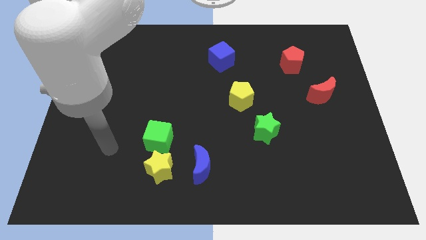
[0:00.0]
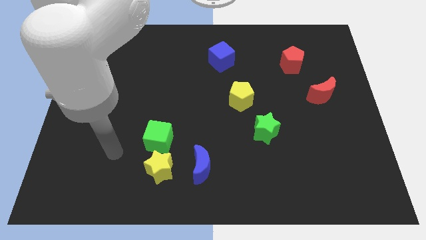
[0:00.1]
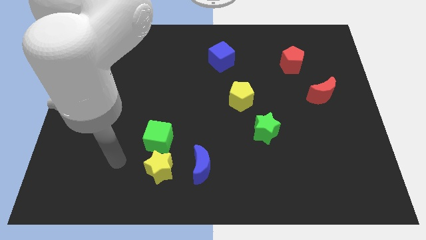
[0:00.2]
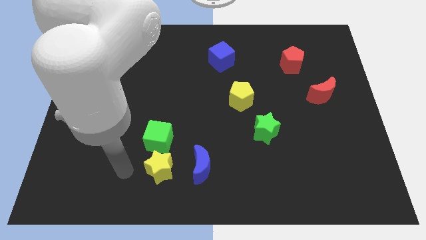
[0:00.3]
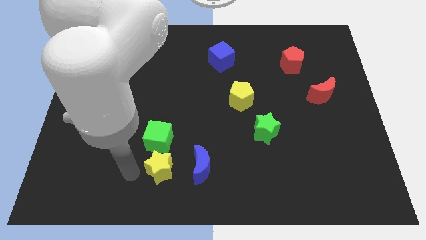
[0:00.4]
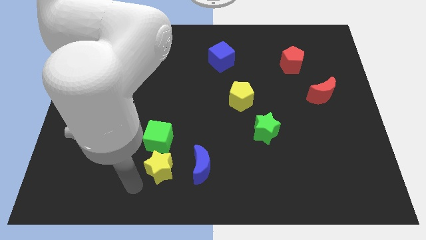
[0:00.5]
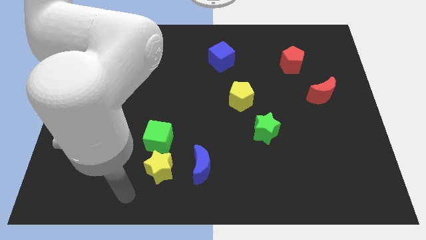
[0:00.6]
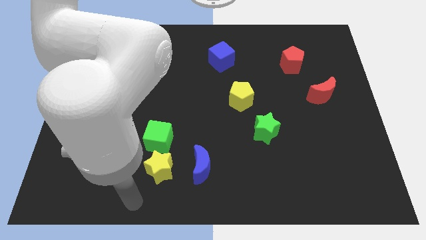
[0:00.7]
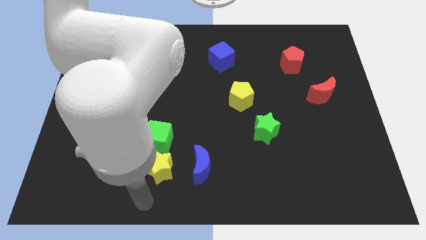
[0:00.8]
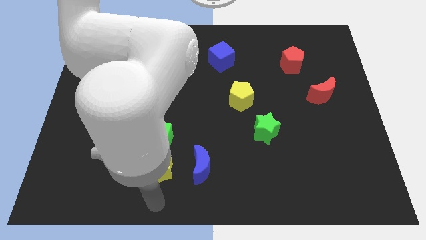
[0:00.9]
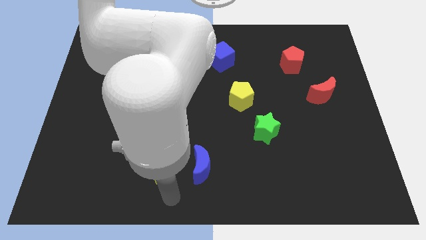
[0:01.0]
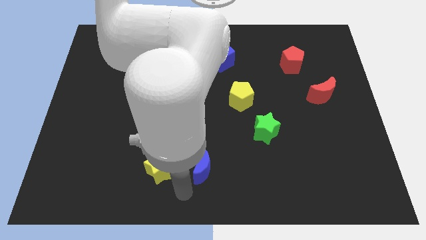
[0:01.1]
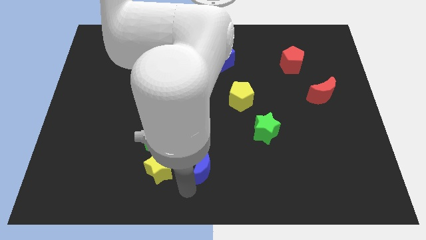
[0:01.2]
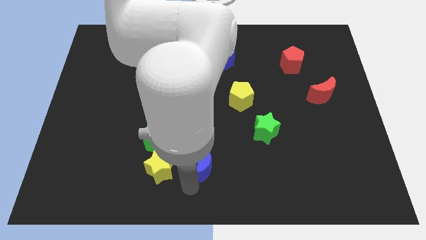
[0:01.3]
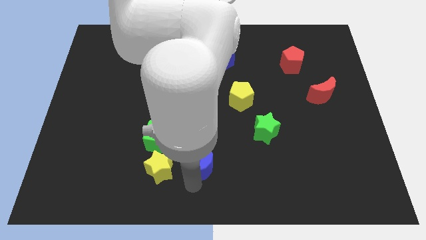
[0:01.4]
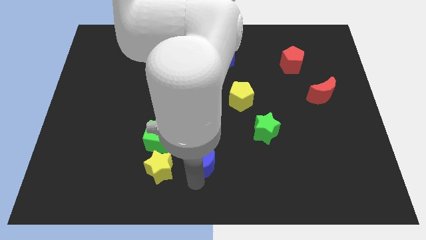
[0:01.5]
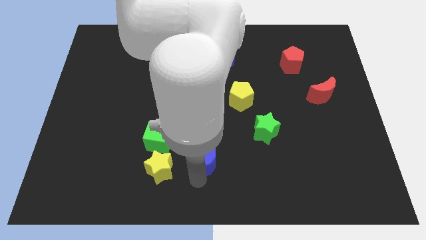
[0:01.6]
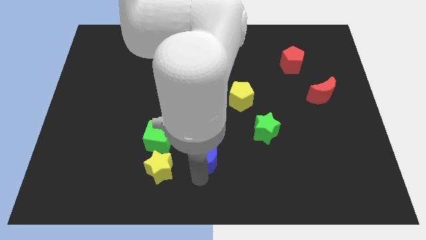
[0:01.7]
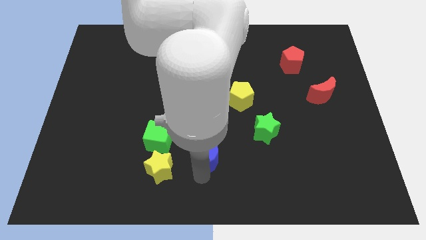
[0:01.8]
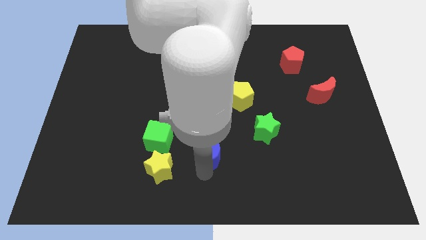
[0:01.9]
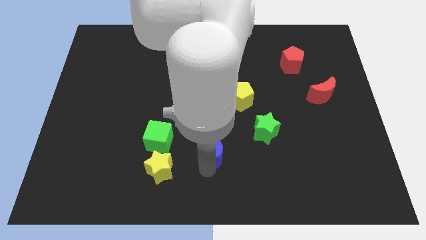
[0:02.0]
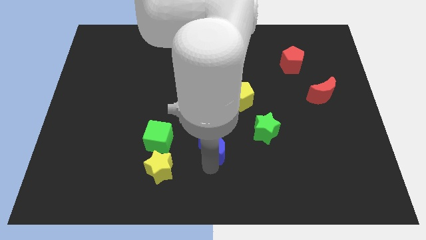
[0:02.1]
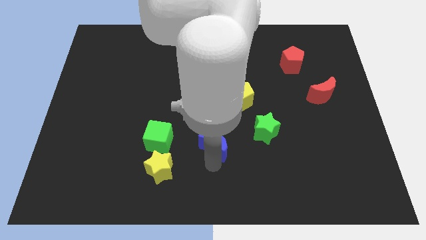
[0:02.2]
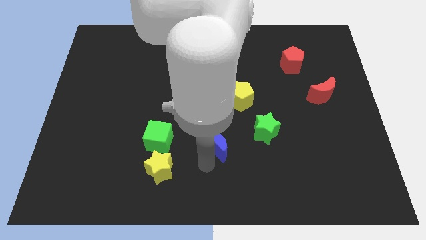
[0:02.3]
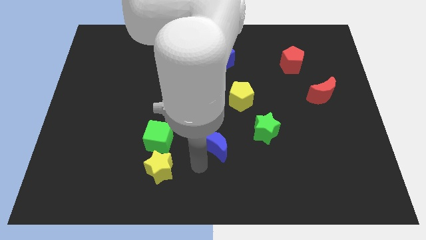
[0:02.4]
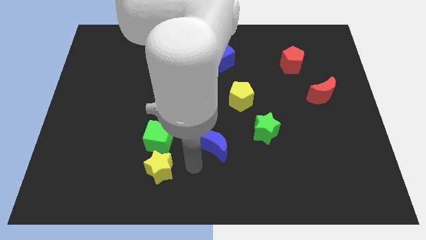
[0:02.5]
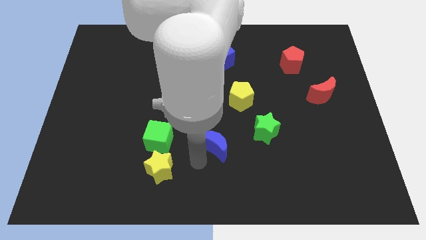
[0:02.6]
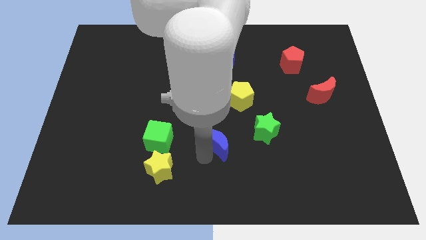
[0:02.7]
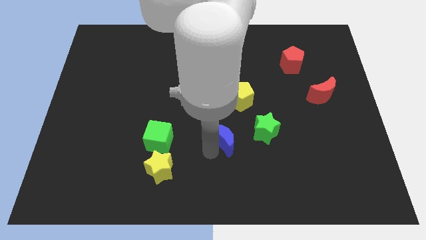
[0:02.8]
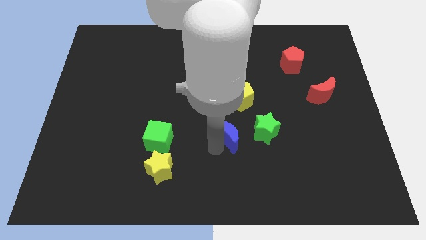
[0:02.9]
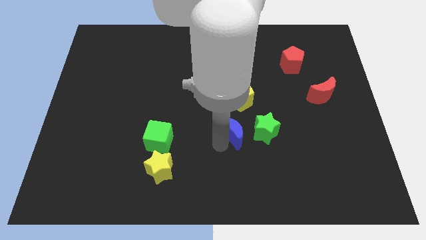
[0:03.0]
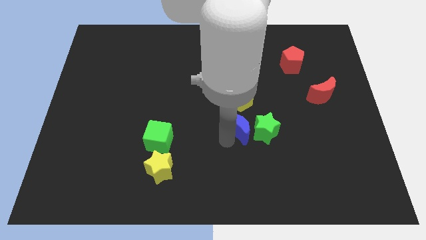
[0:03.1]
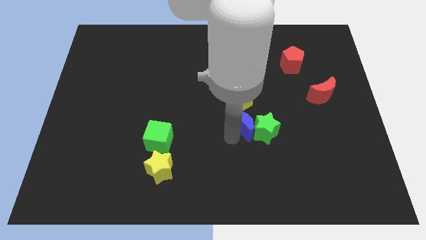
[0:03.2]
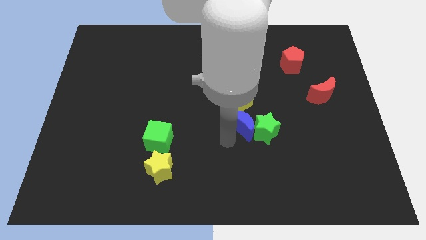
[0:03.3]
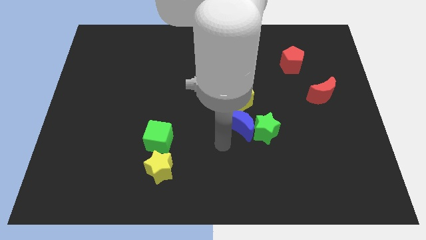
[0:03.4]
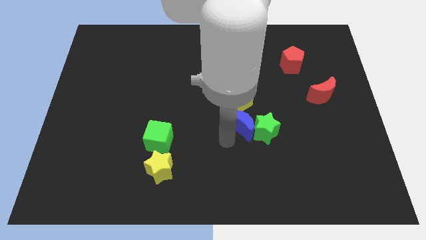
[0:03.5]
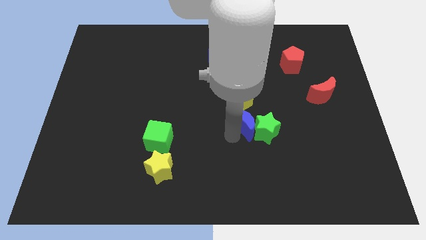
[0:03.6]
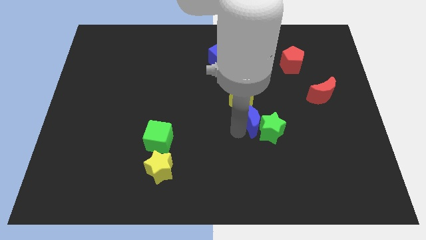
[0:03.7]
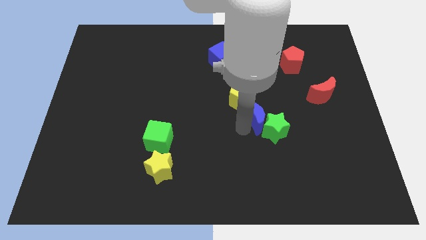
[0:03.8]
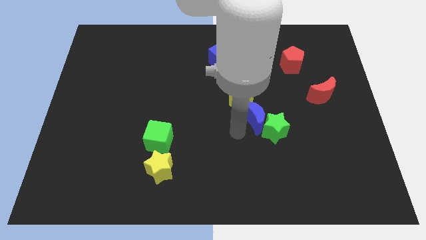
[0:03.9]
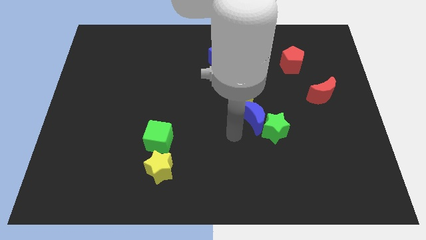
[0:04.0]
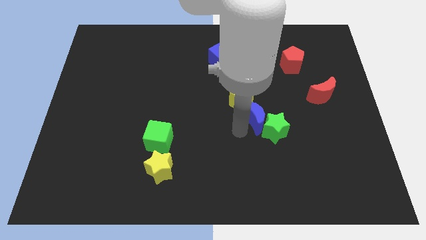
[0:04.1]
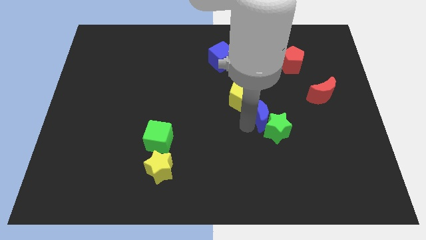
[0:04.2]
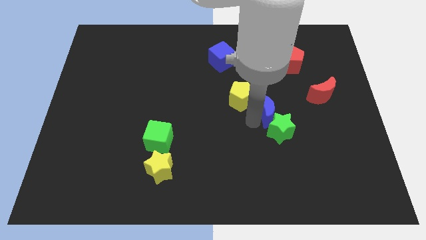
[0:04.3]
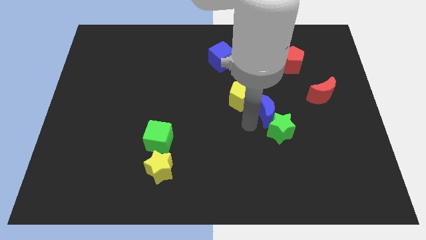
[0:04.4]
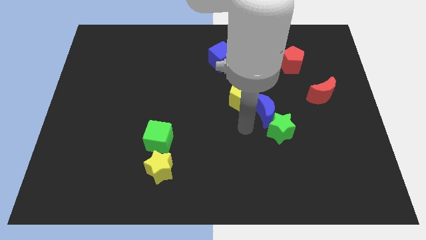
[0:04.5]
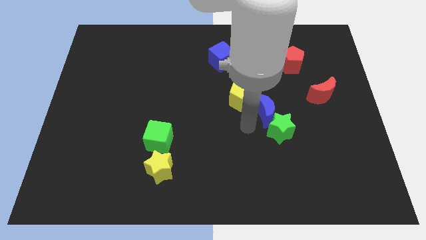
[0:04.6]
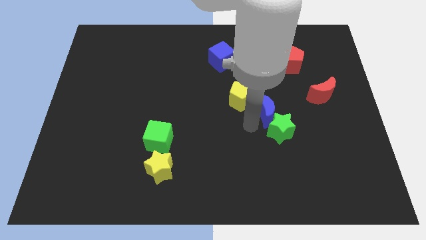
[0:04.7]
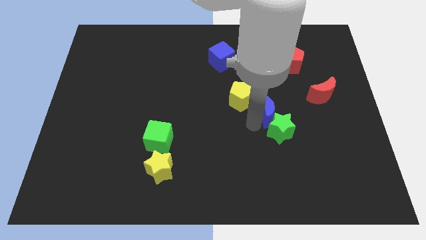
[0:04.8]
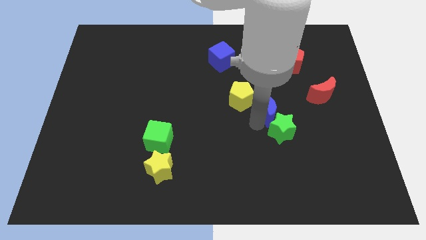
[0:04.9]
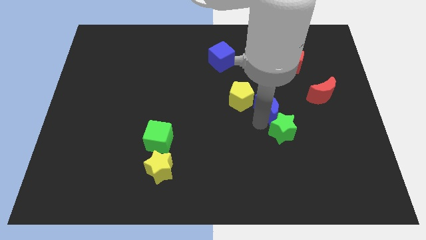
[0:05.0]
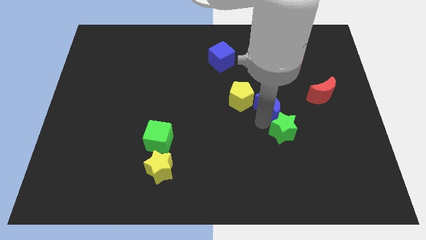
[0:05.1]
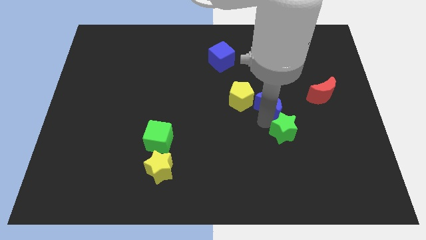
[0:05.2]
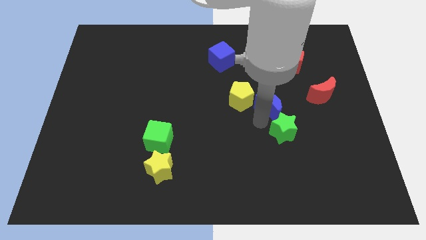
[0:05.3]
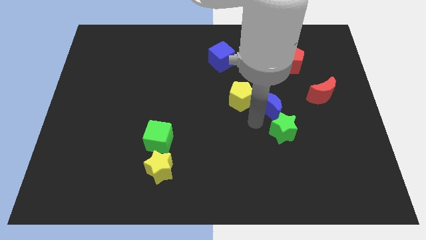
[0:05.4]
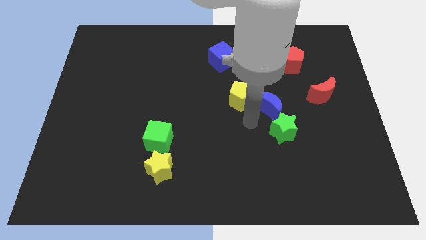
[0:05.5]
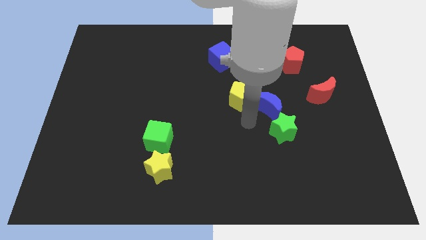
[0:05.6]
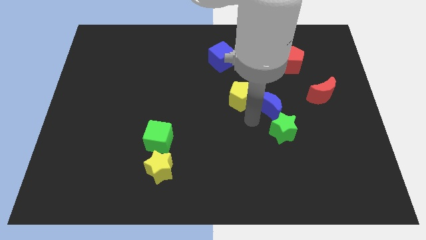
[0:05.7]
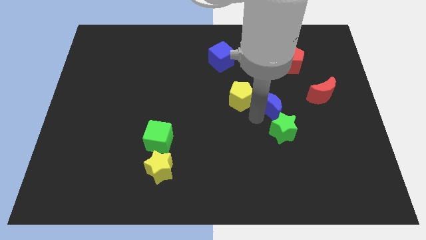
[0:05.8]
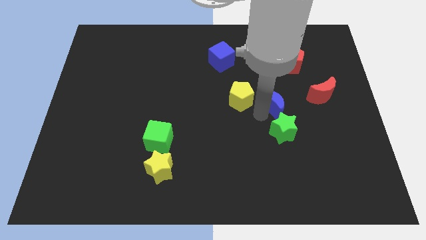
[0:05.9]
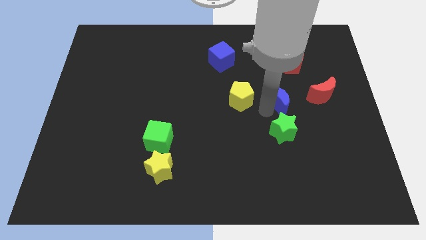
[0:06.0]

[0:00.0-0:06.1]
push the blue moon below the red pentagon

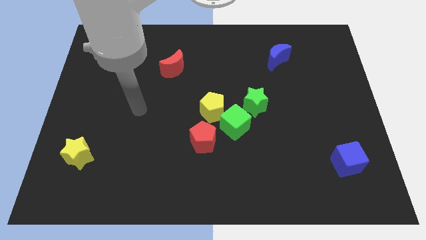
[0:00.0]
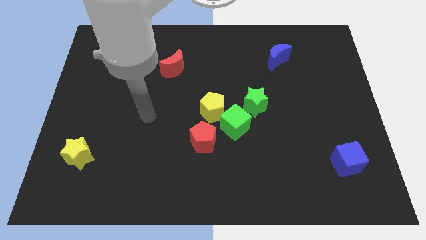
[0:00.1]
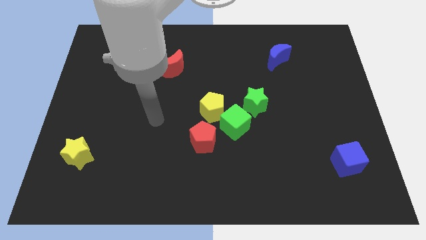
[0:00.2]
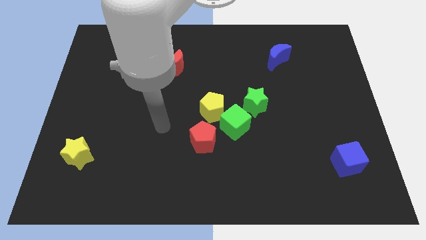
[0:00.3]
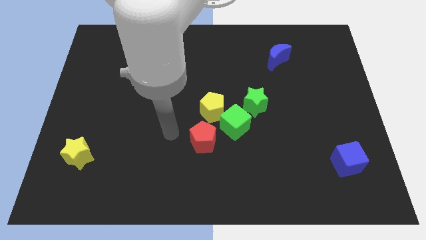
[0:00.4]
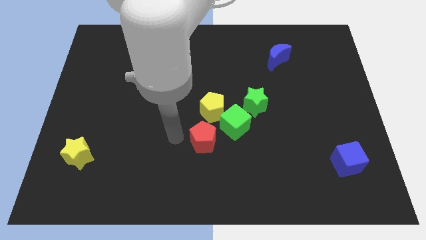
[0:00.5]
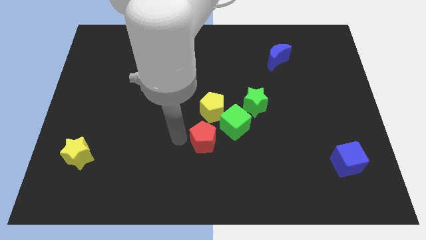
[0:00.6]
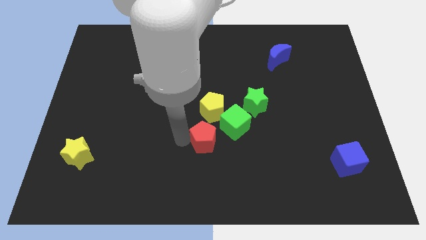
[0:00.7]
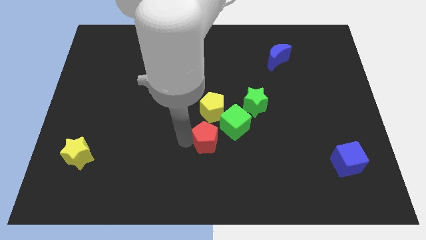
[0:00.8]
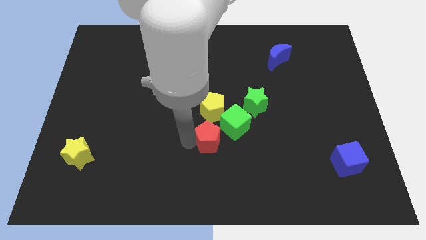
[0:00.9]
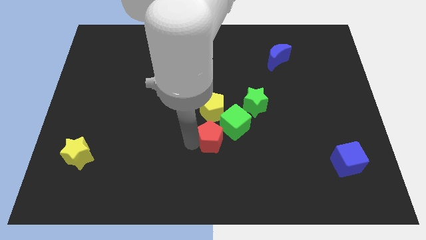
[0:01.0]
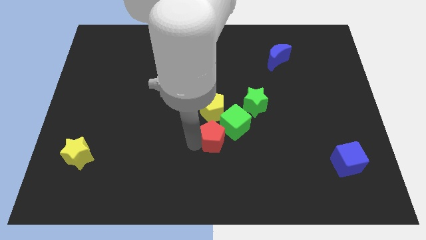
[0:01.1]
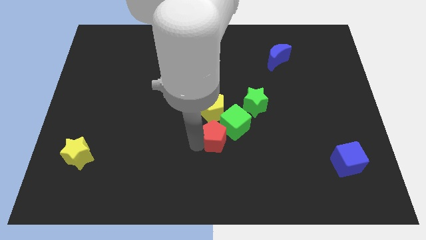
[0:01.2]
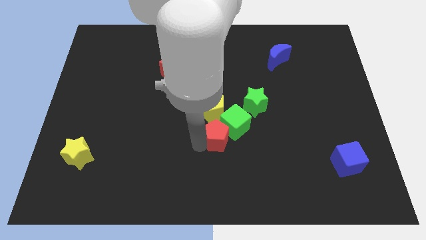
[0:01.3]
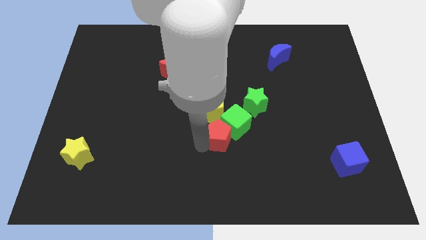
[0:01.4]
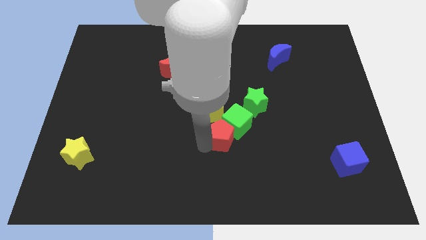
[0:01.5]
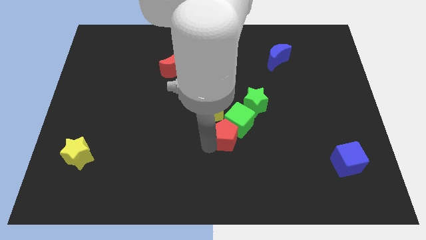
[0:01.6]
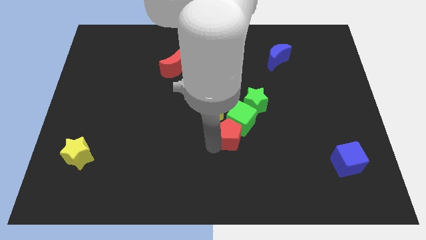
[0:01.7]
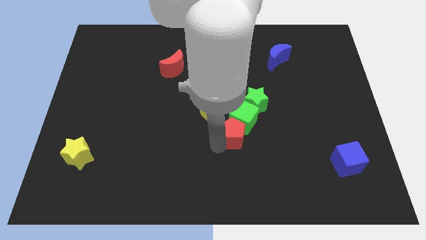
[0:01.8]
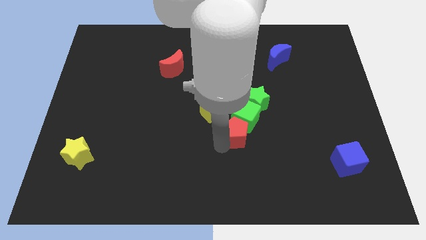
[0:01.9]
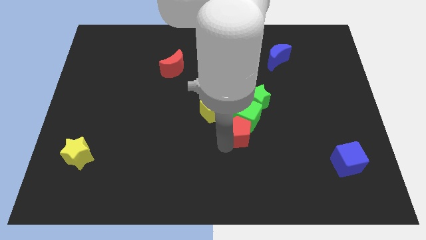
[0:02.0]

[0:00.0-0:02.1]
put the red pentagon to the bottom right side of the green cube
